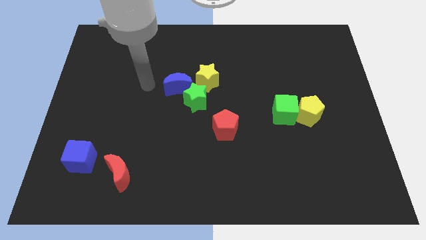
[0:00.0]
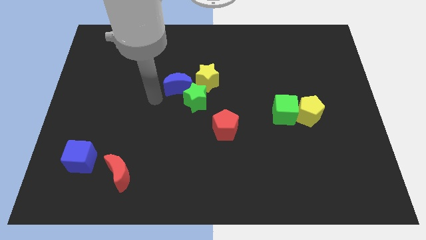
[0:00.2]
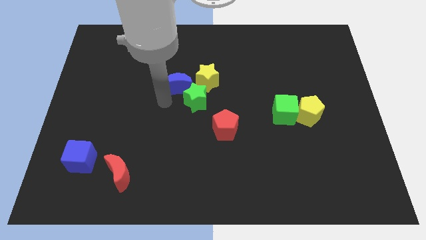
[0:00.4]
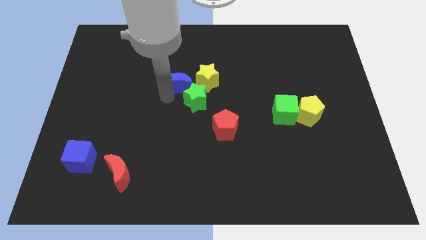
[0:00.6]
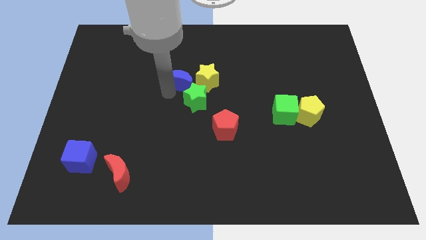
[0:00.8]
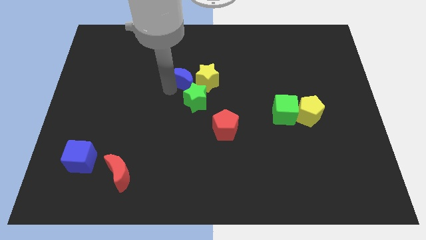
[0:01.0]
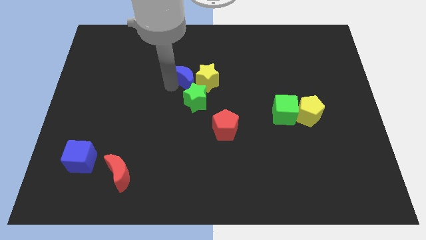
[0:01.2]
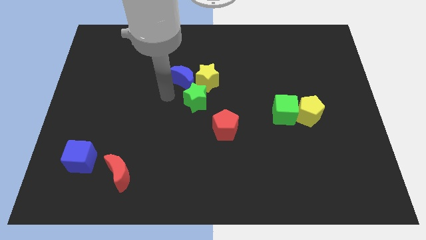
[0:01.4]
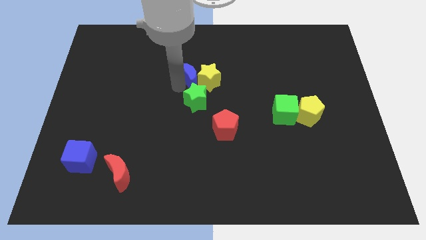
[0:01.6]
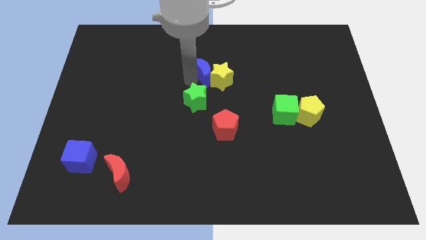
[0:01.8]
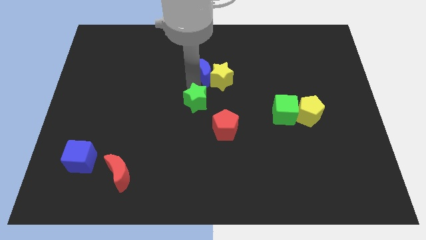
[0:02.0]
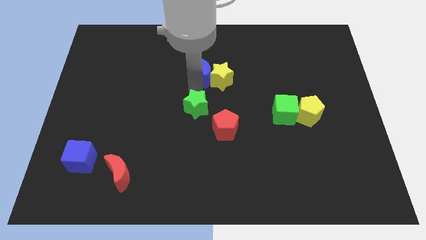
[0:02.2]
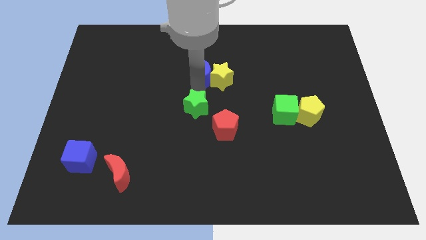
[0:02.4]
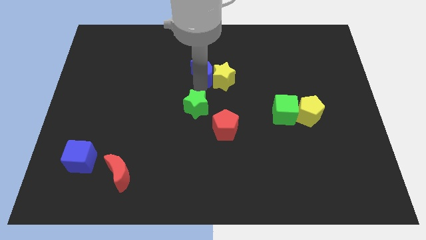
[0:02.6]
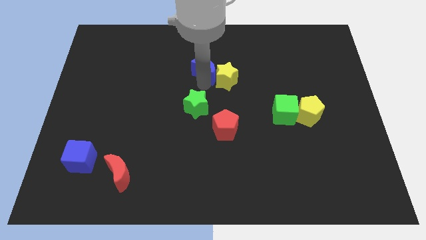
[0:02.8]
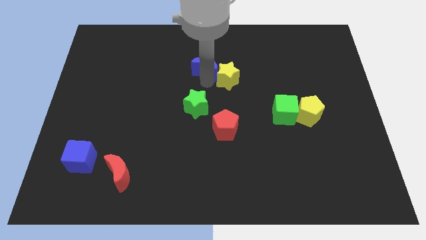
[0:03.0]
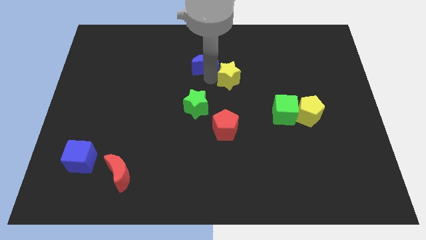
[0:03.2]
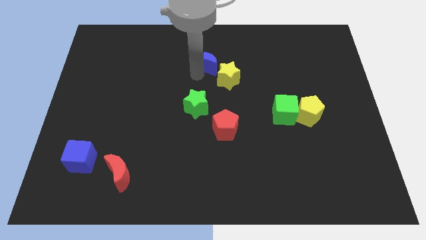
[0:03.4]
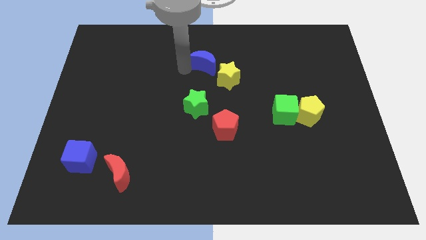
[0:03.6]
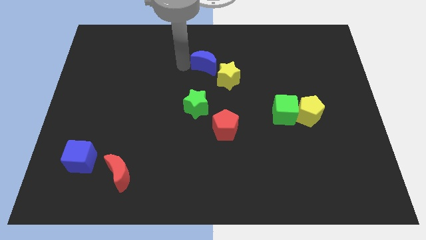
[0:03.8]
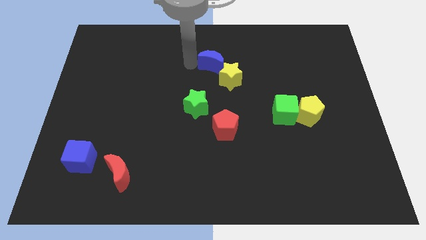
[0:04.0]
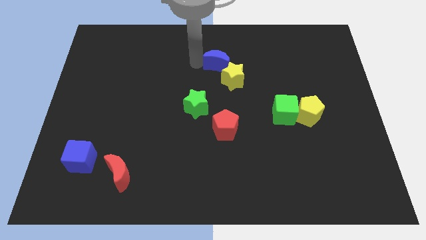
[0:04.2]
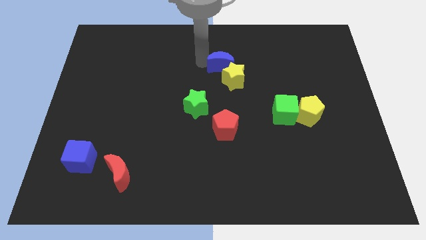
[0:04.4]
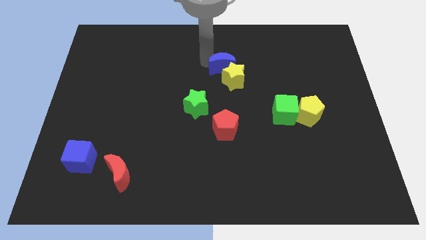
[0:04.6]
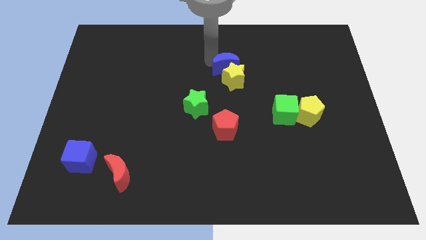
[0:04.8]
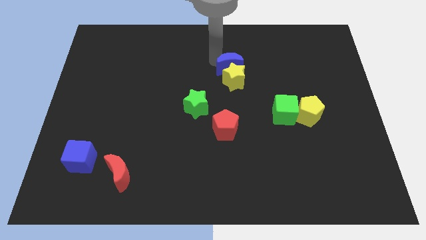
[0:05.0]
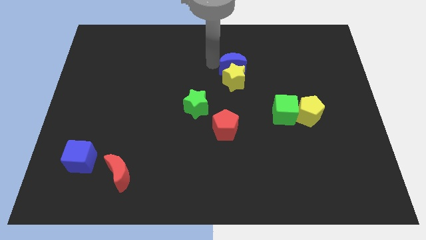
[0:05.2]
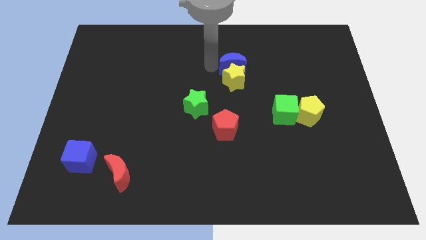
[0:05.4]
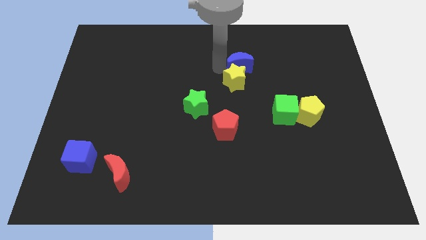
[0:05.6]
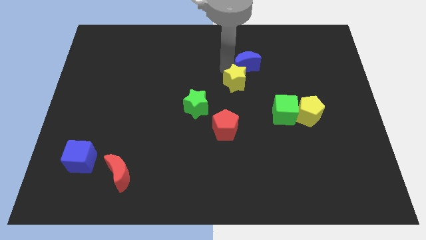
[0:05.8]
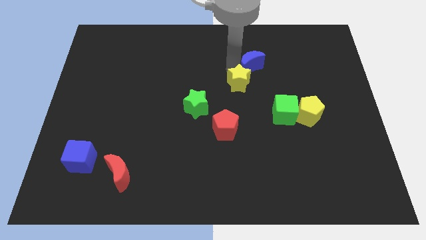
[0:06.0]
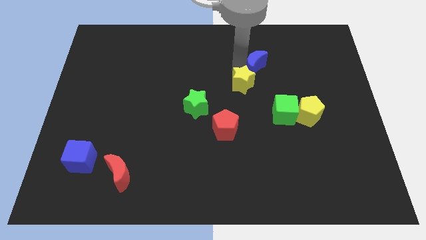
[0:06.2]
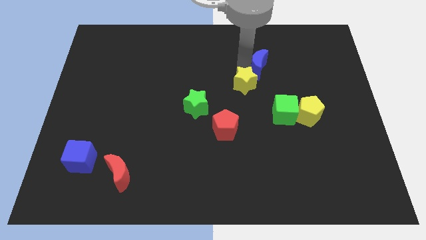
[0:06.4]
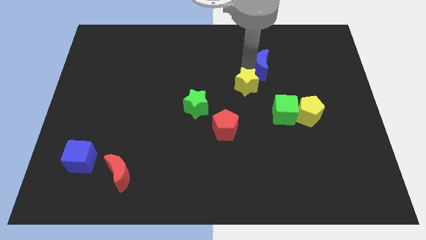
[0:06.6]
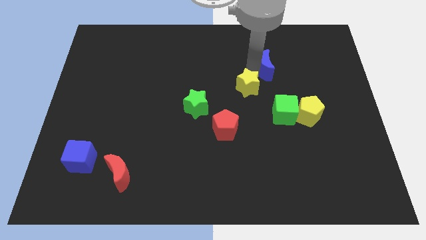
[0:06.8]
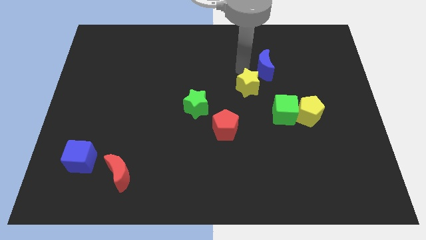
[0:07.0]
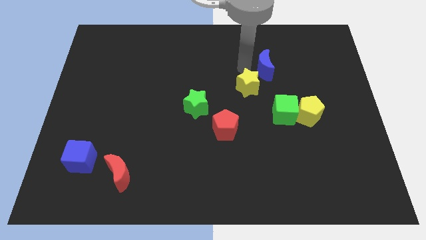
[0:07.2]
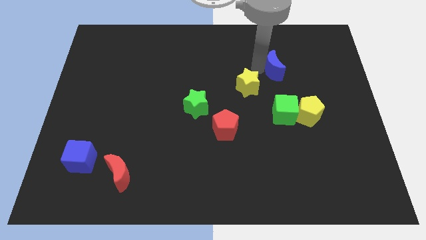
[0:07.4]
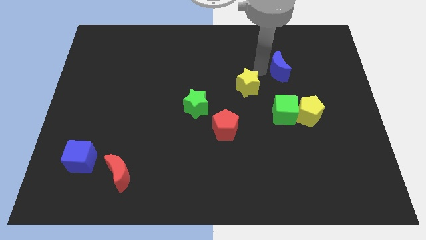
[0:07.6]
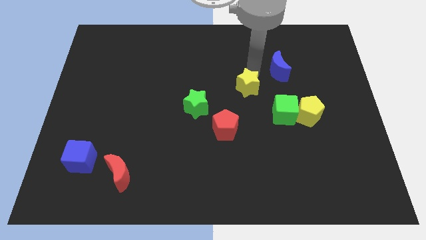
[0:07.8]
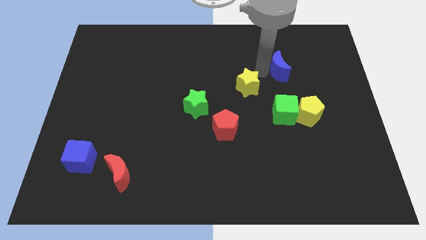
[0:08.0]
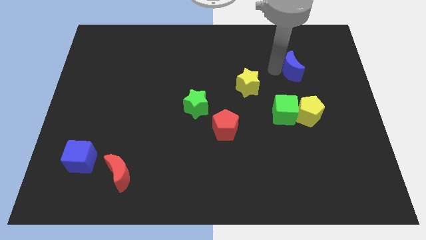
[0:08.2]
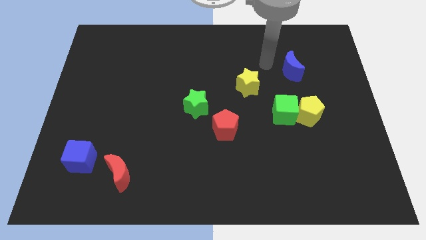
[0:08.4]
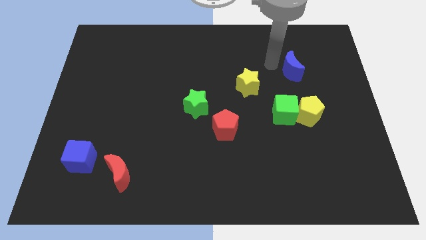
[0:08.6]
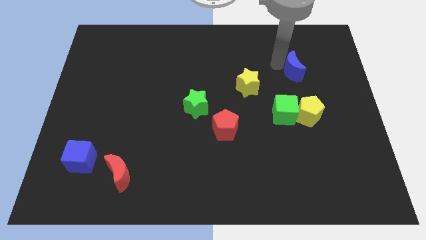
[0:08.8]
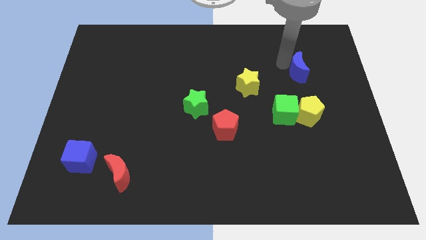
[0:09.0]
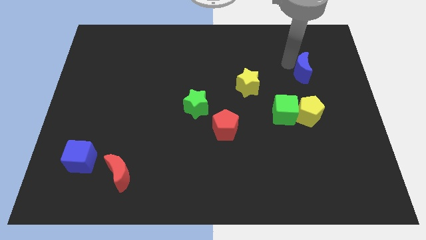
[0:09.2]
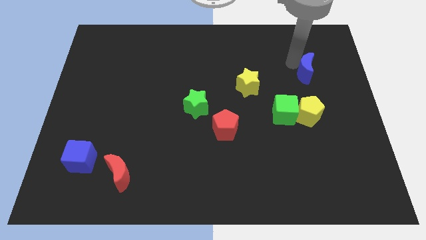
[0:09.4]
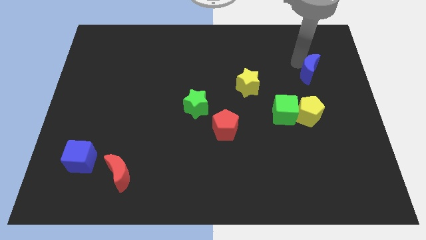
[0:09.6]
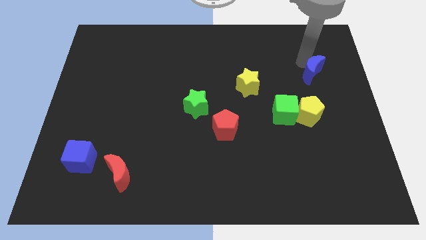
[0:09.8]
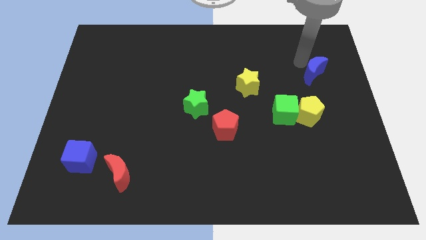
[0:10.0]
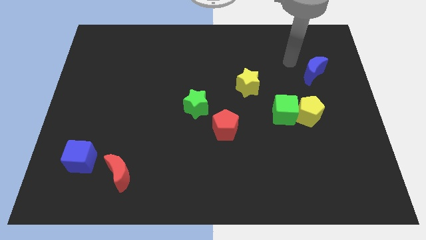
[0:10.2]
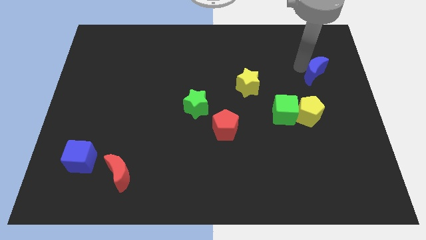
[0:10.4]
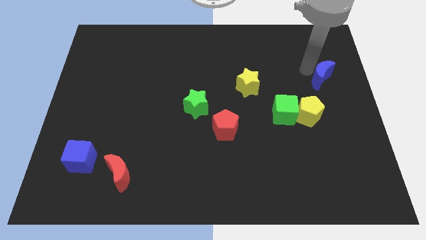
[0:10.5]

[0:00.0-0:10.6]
push the blue moon to the center right

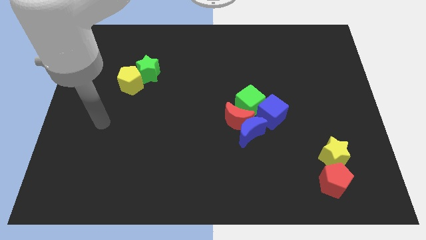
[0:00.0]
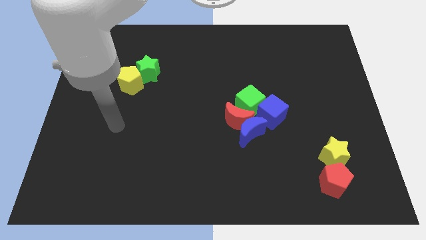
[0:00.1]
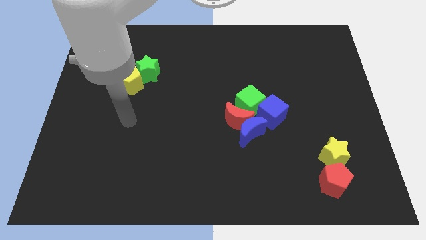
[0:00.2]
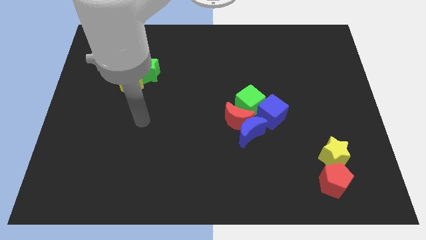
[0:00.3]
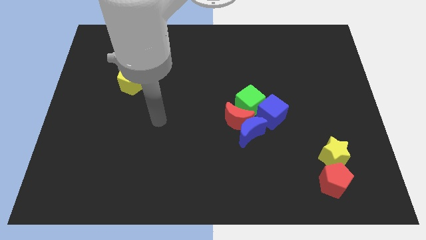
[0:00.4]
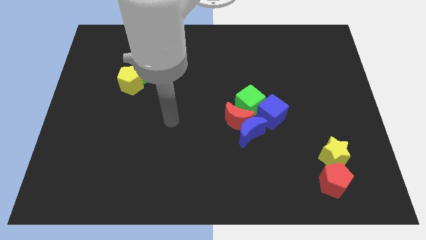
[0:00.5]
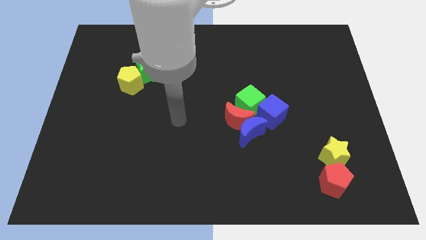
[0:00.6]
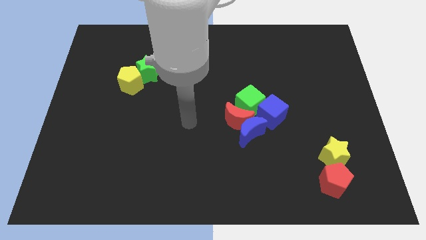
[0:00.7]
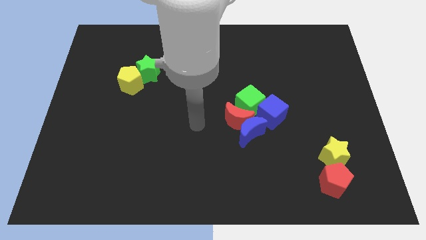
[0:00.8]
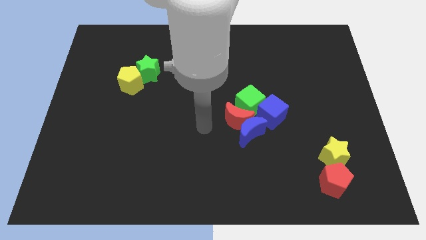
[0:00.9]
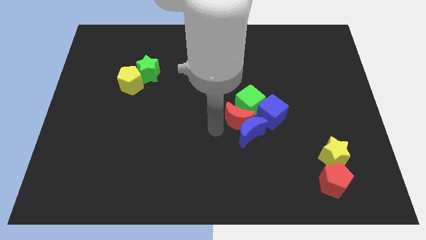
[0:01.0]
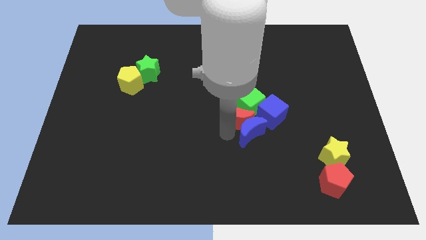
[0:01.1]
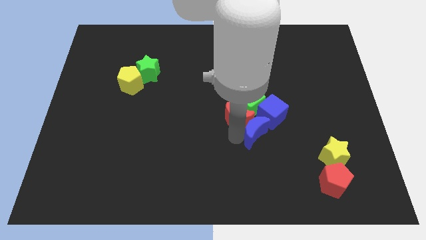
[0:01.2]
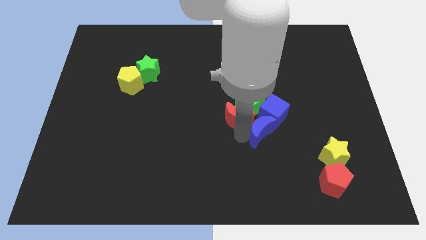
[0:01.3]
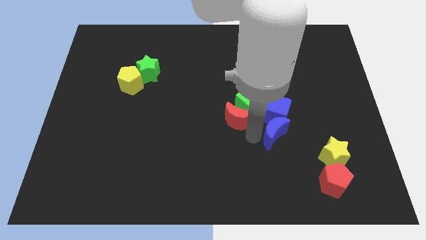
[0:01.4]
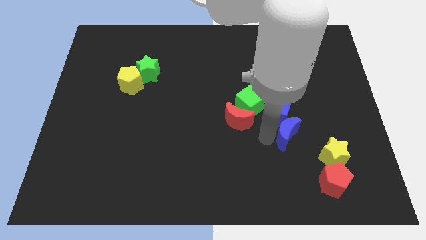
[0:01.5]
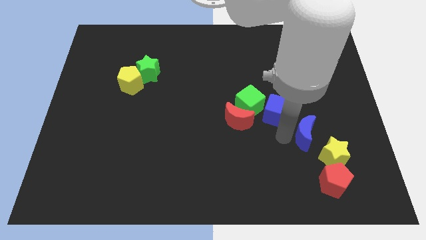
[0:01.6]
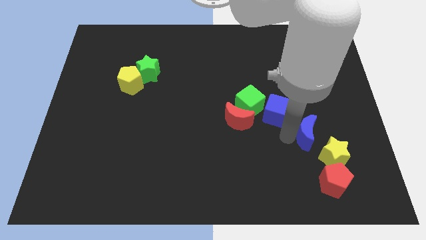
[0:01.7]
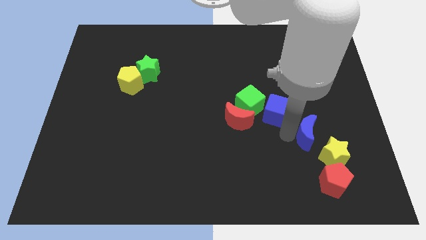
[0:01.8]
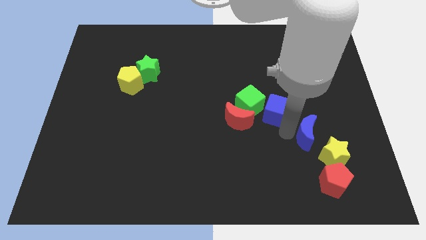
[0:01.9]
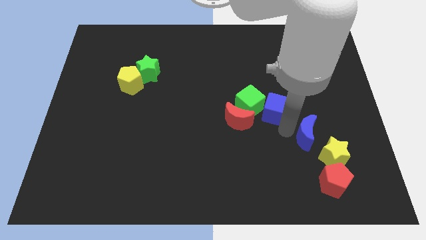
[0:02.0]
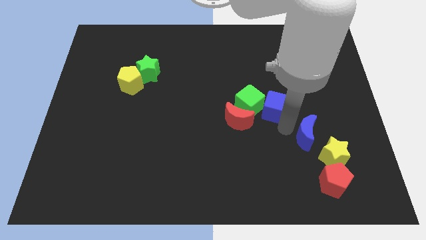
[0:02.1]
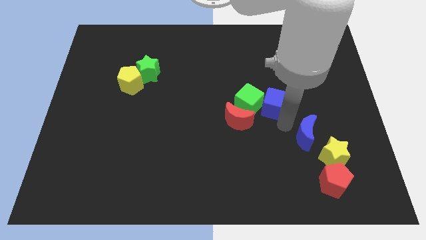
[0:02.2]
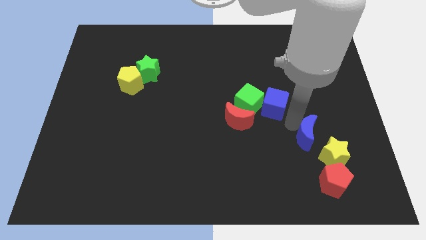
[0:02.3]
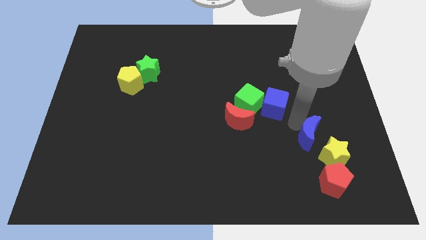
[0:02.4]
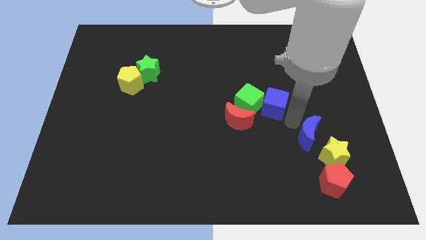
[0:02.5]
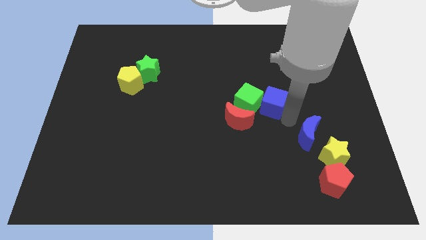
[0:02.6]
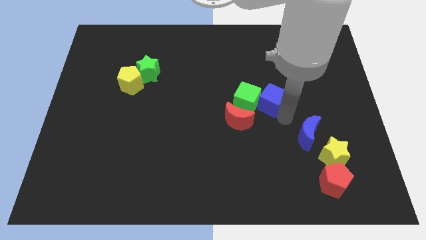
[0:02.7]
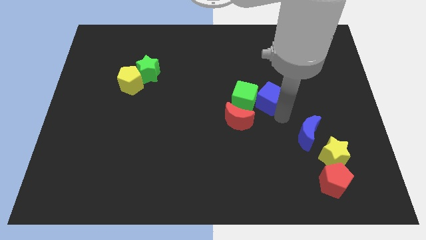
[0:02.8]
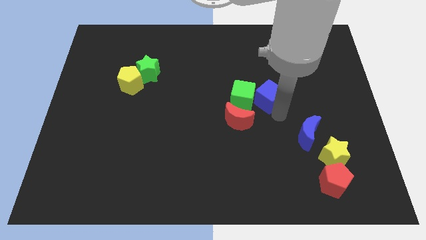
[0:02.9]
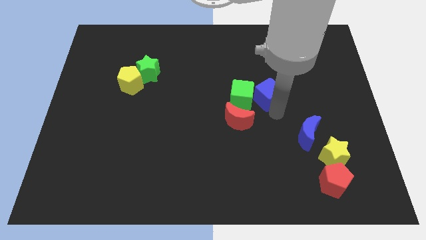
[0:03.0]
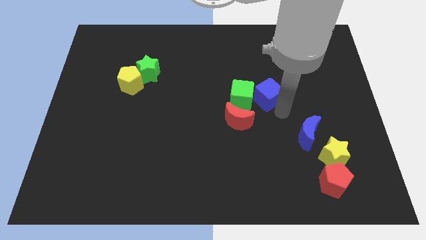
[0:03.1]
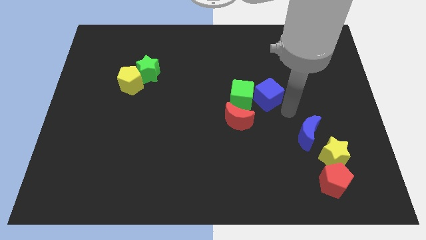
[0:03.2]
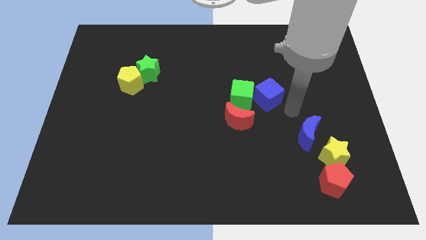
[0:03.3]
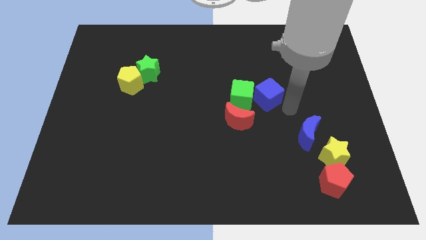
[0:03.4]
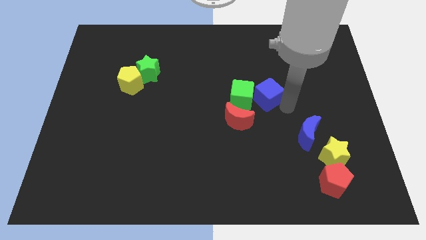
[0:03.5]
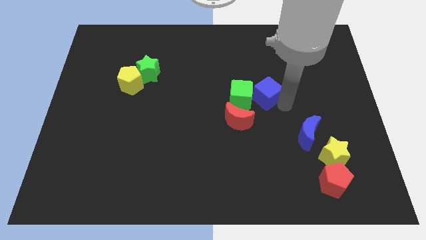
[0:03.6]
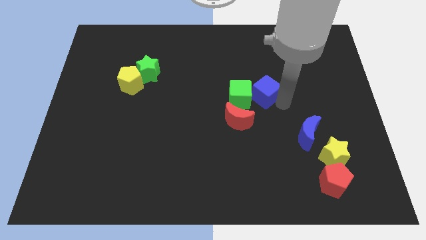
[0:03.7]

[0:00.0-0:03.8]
move the blue cube to the middle
